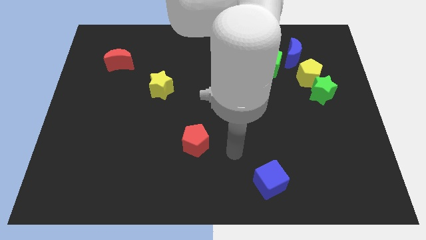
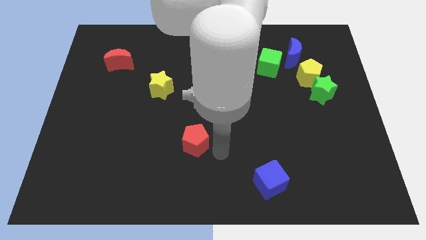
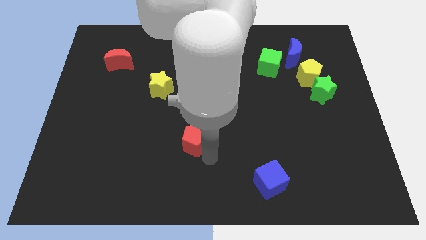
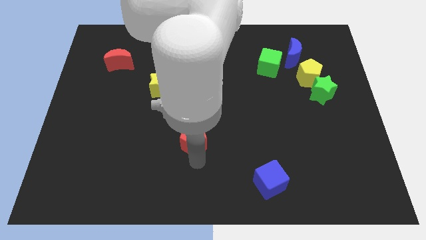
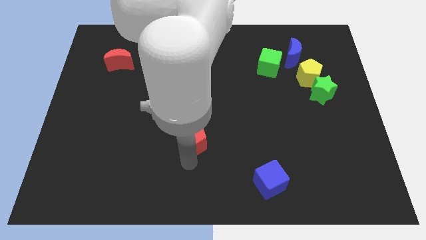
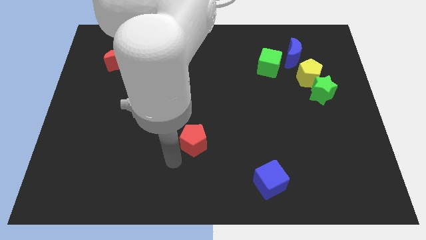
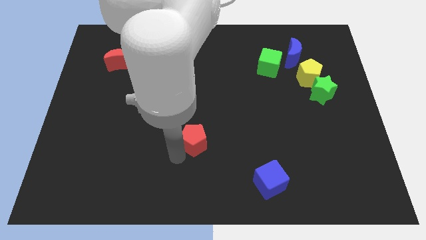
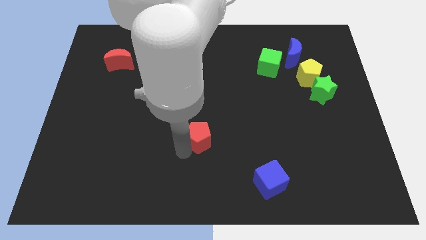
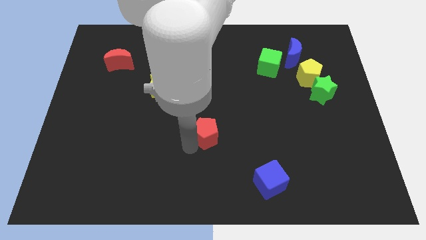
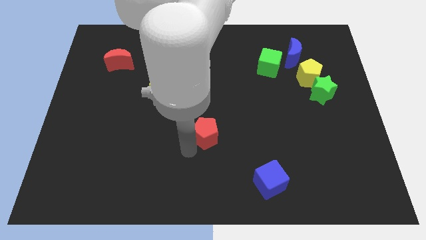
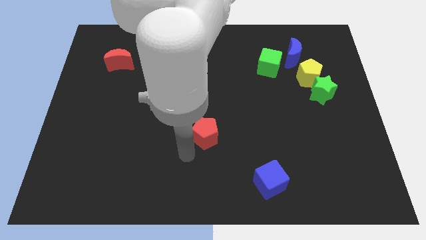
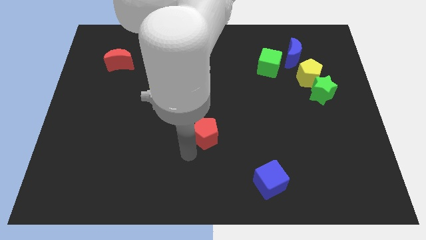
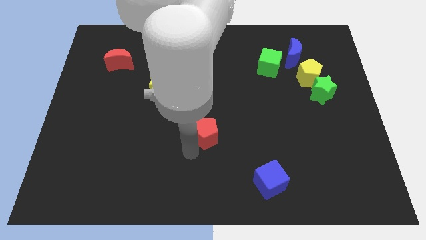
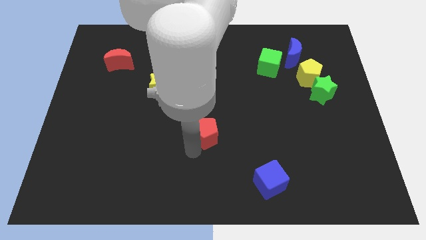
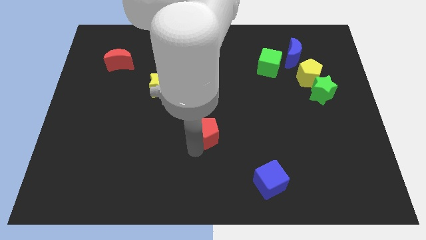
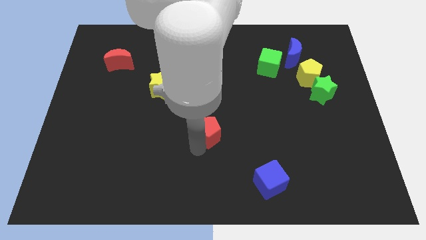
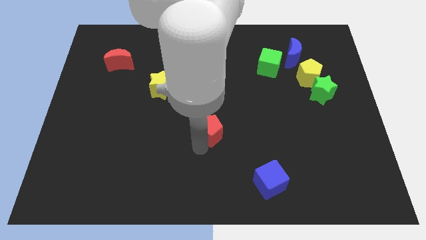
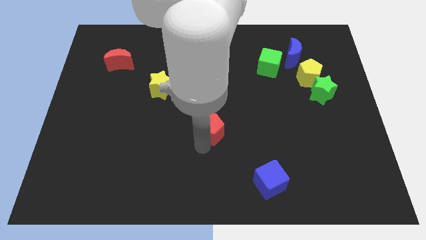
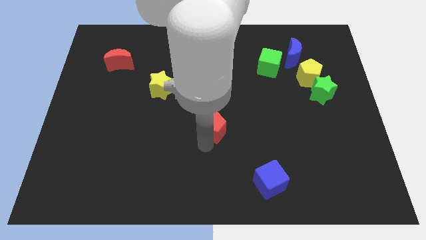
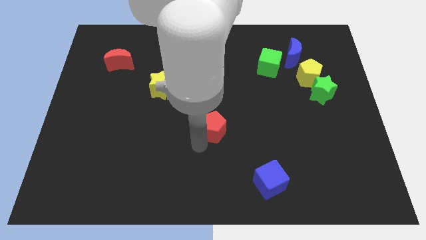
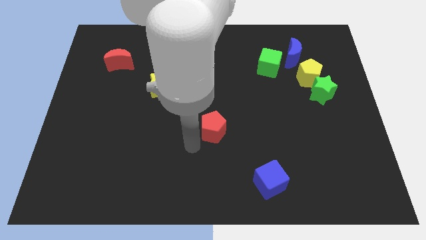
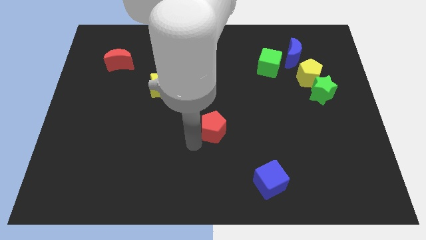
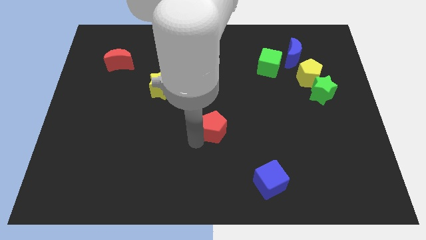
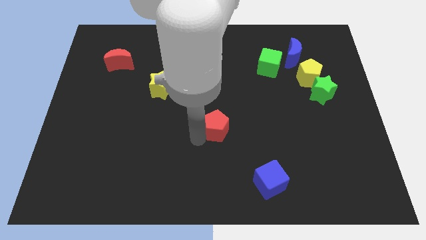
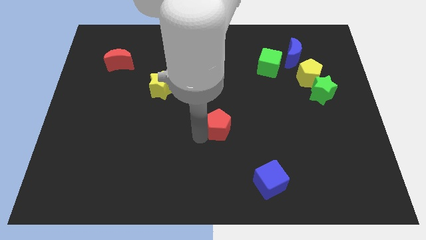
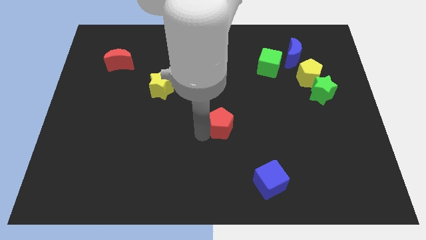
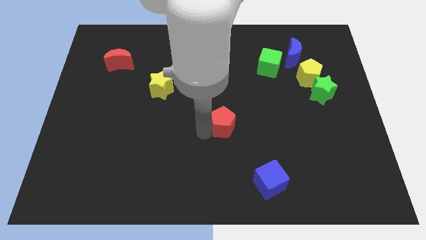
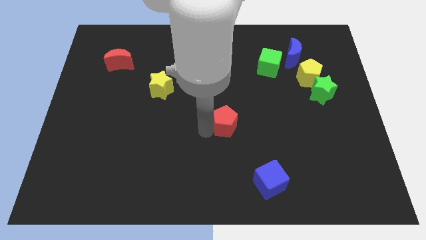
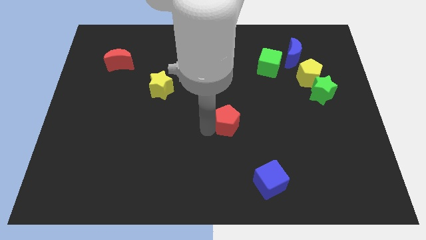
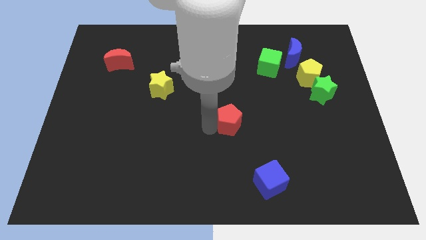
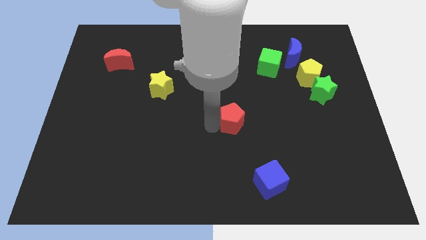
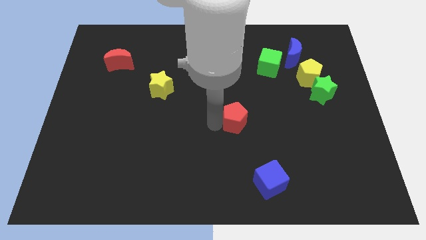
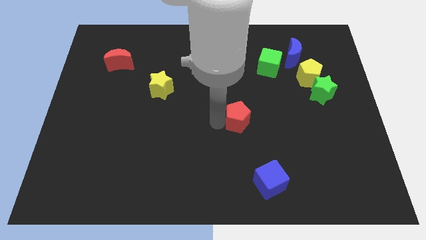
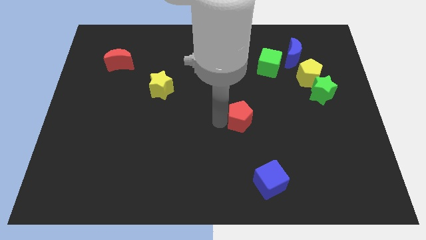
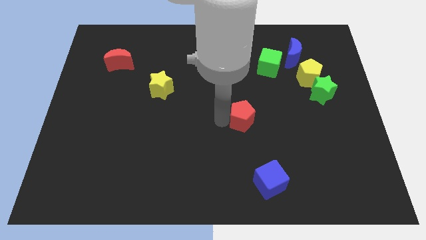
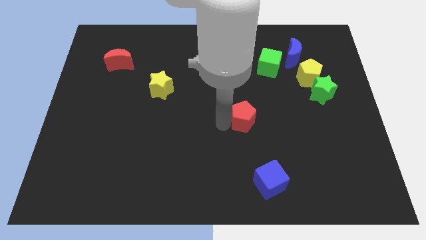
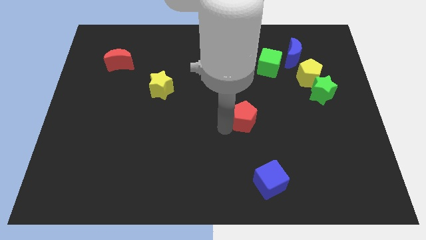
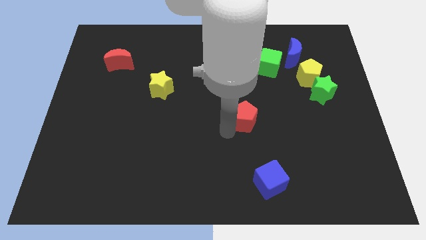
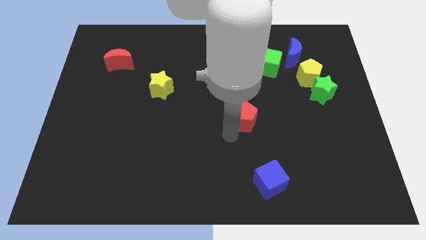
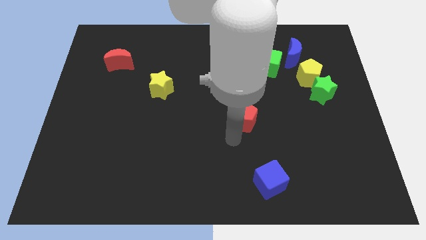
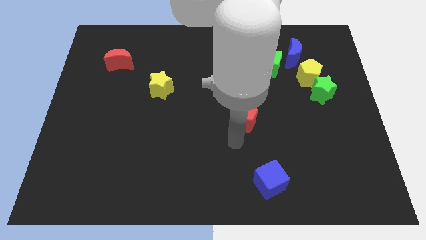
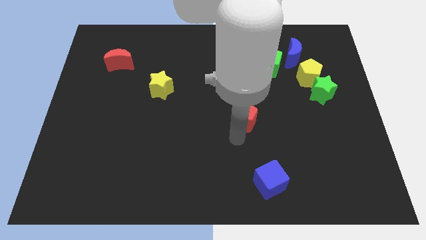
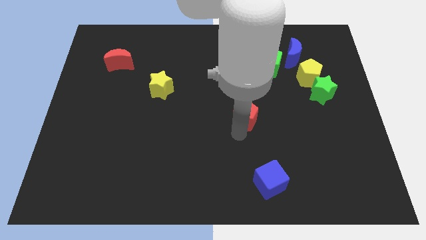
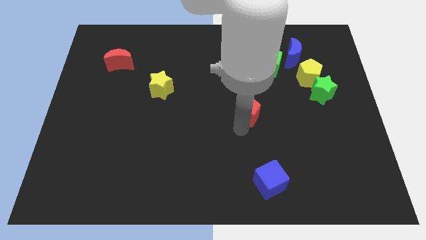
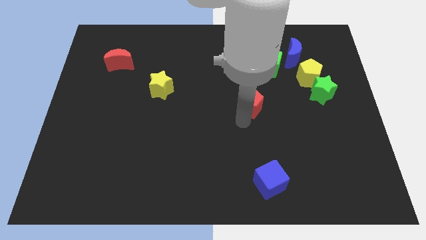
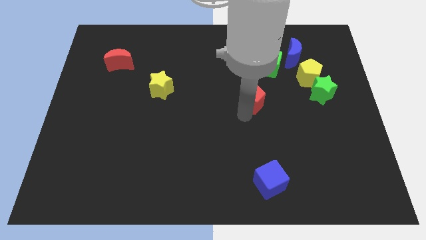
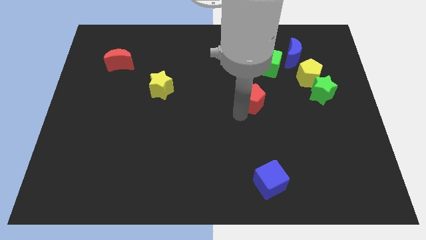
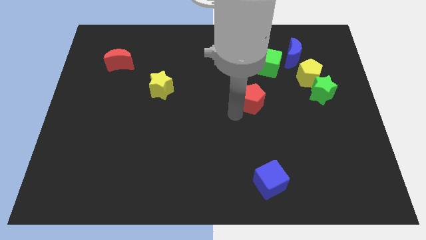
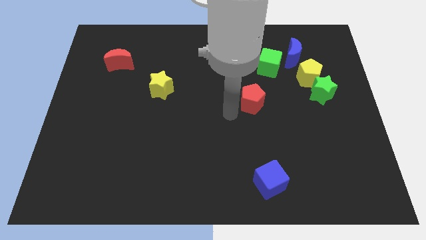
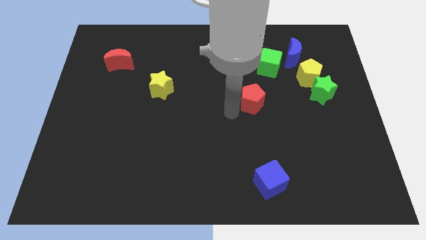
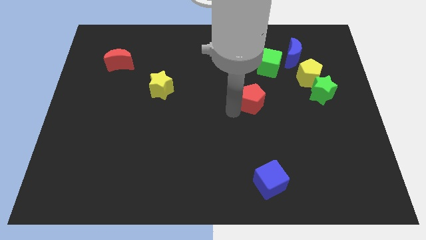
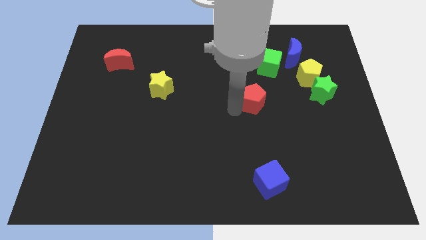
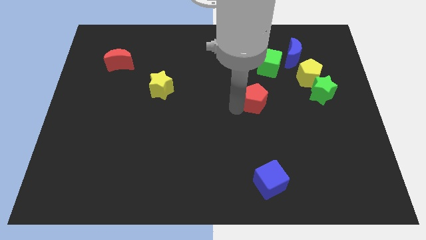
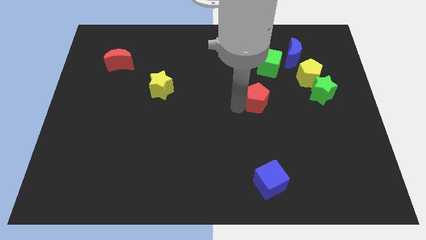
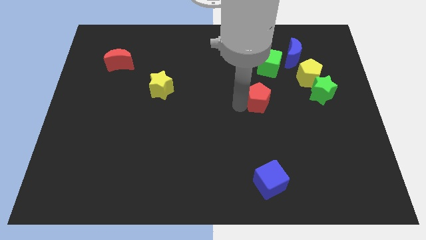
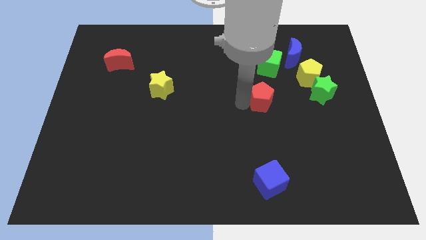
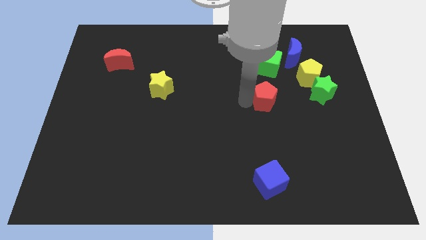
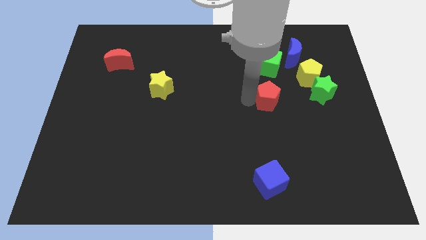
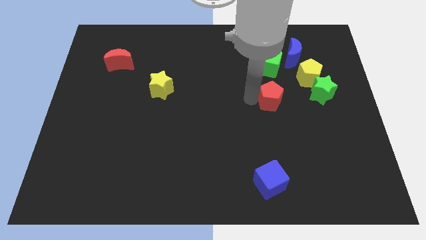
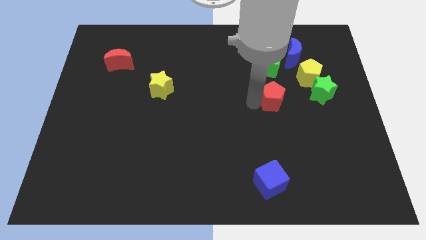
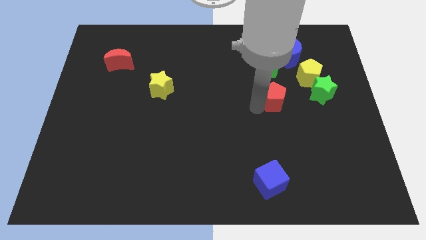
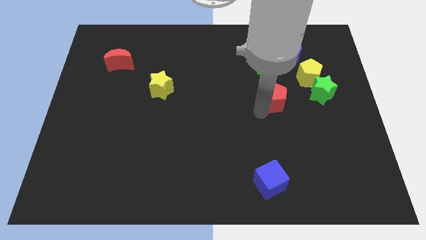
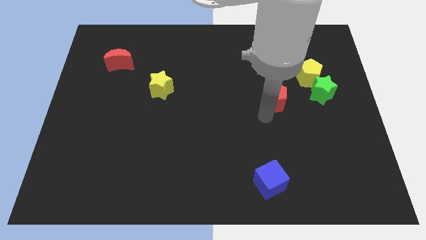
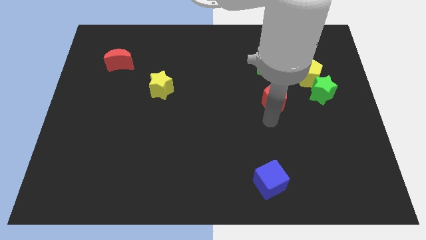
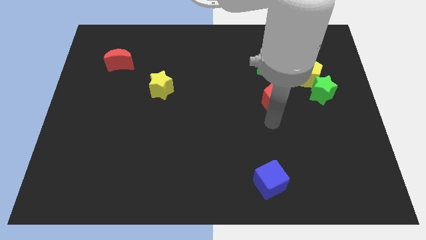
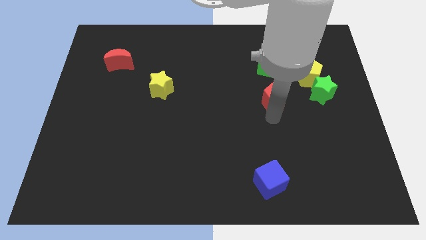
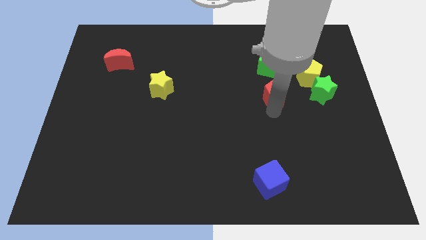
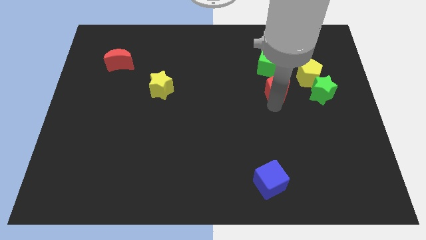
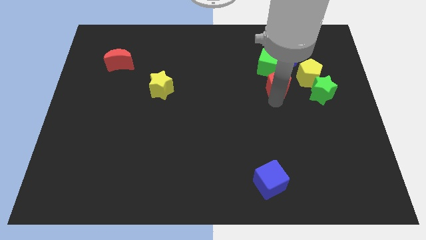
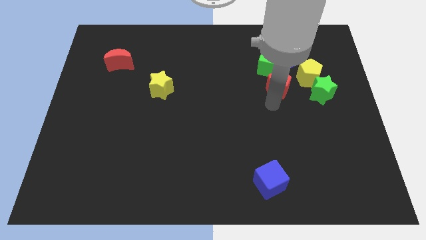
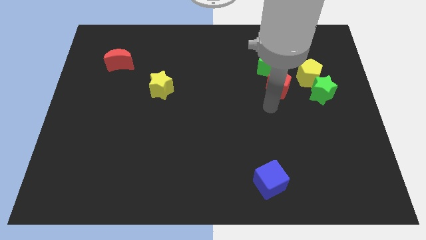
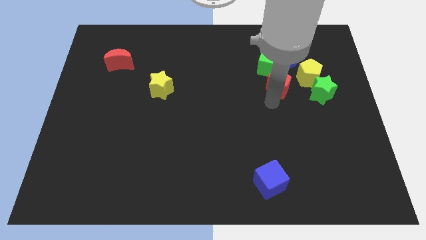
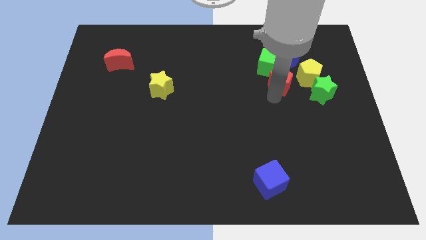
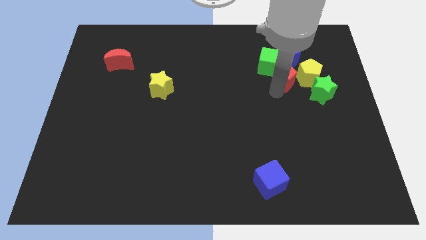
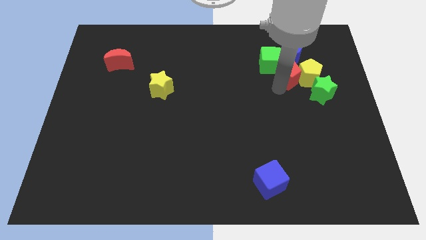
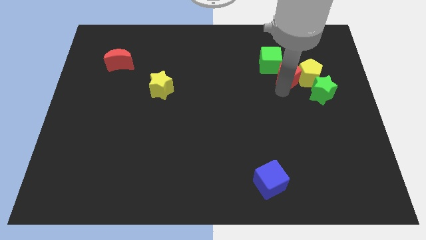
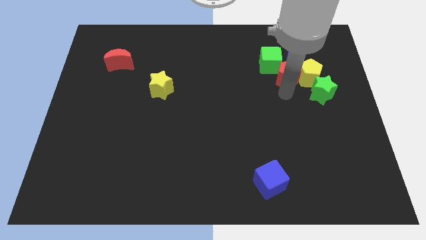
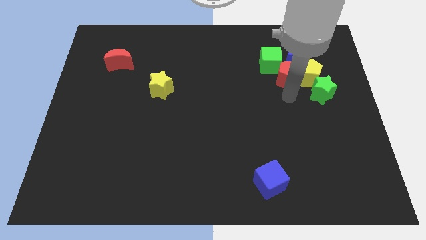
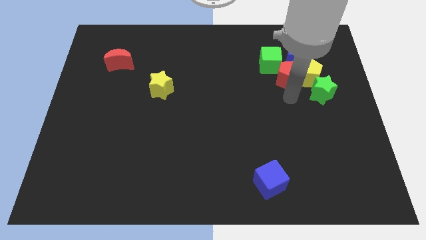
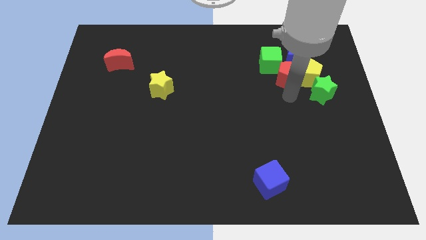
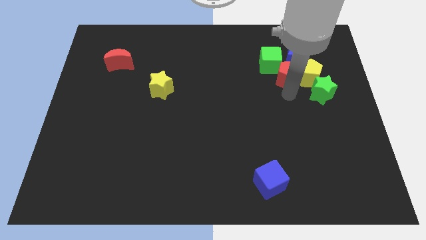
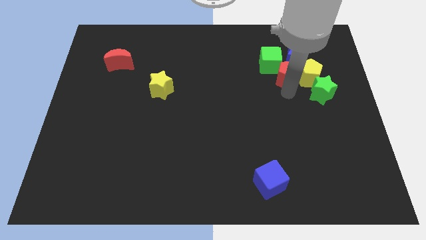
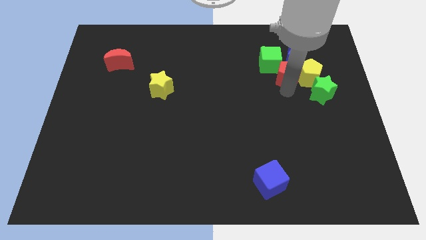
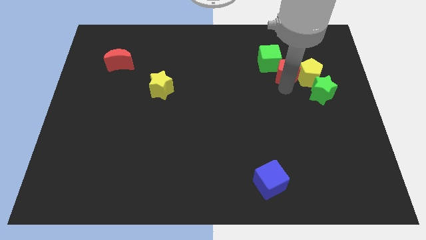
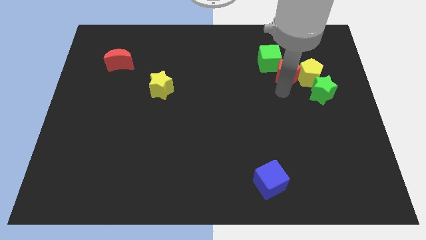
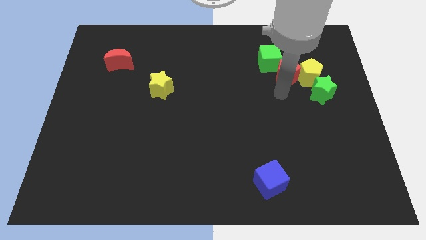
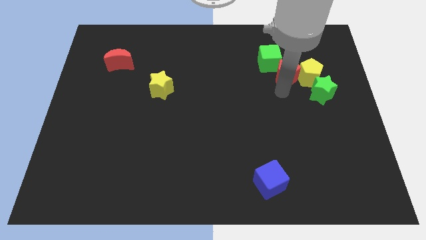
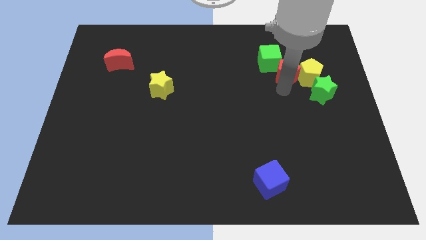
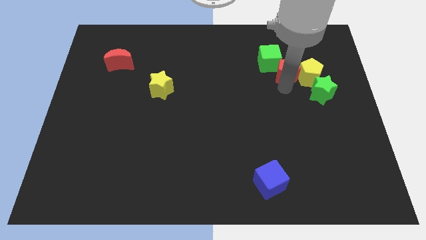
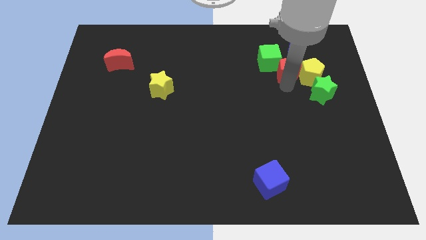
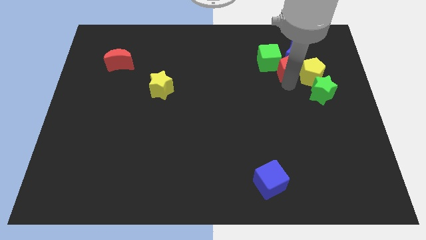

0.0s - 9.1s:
push the red pentagon to the blue moon
